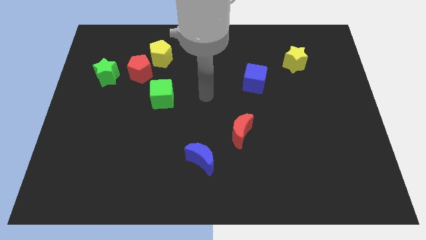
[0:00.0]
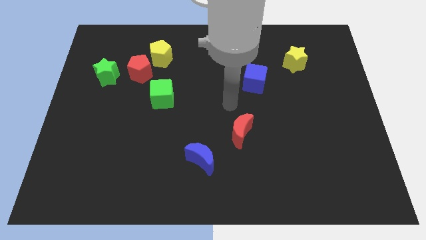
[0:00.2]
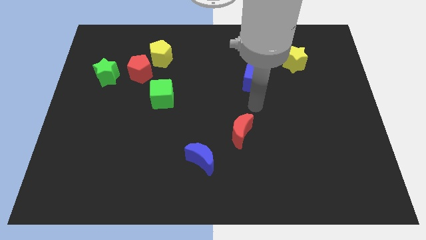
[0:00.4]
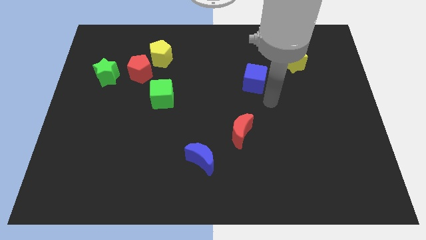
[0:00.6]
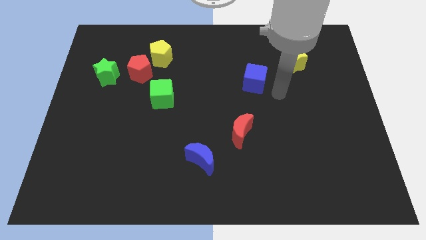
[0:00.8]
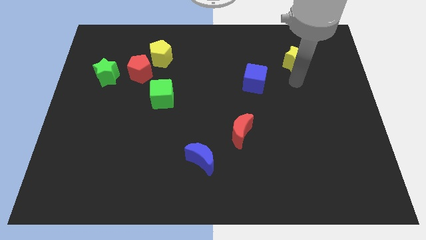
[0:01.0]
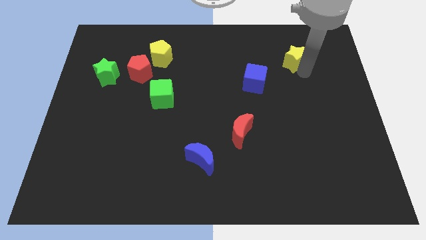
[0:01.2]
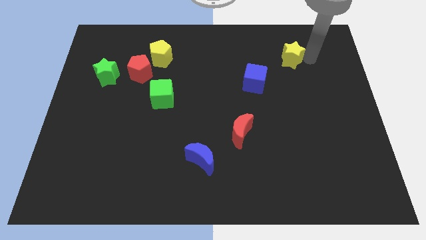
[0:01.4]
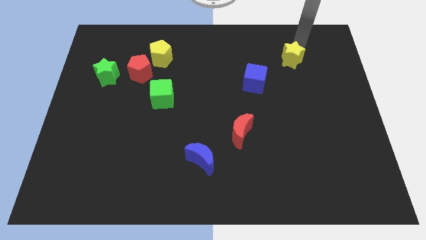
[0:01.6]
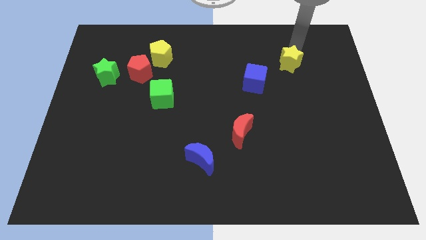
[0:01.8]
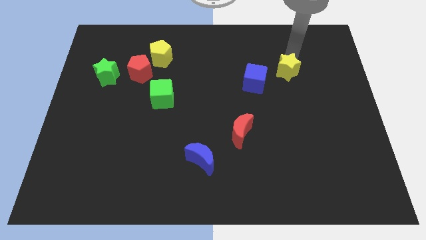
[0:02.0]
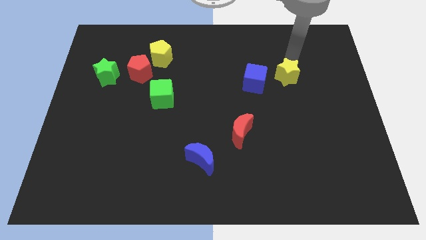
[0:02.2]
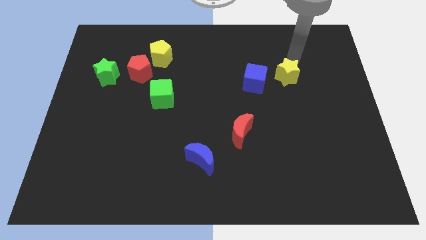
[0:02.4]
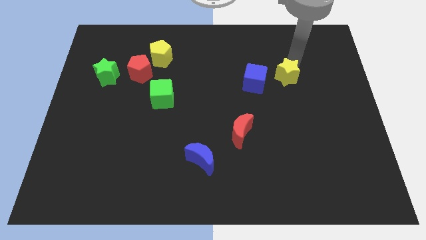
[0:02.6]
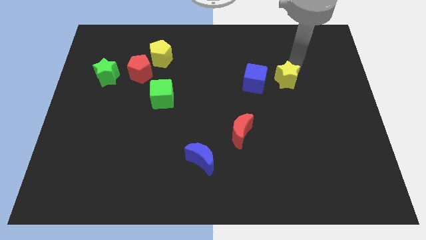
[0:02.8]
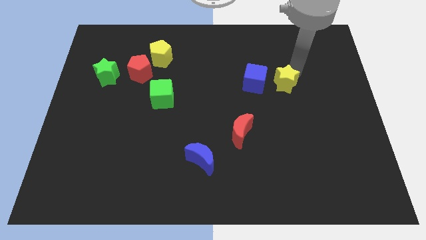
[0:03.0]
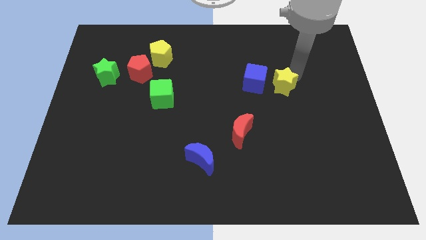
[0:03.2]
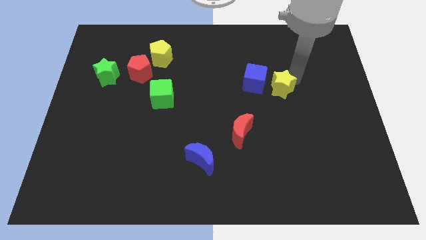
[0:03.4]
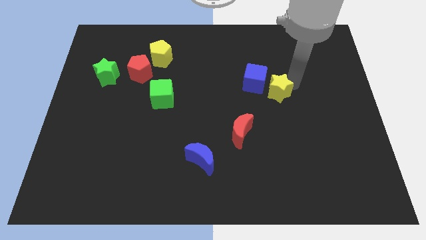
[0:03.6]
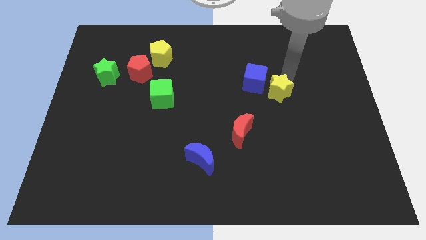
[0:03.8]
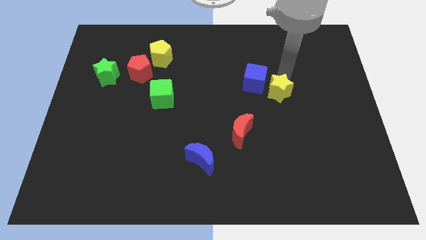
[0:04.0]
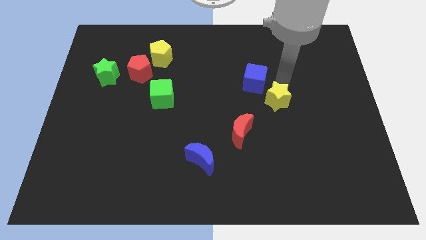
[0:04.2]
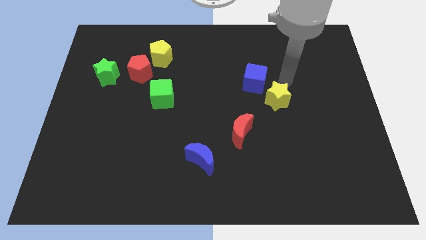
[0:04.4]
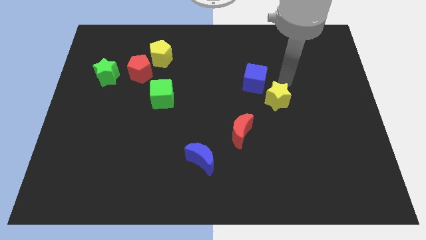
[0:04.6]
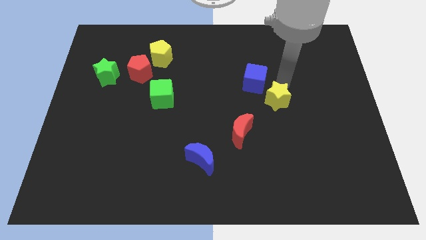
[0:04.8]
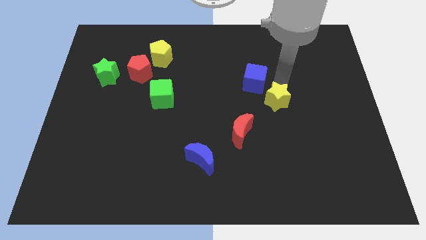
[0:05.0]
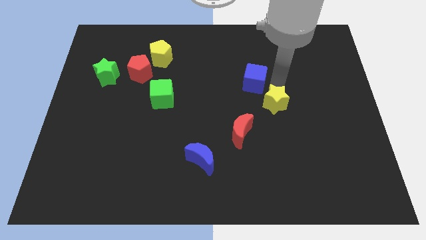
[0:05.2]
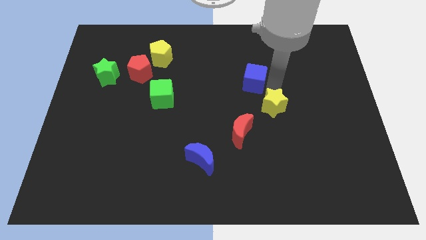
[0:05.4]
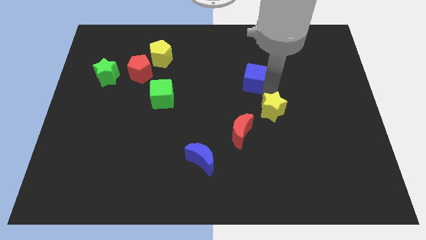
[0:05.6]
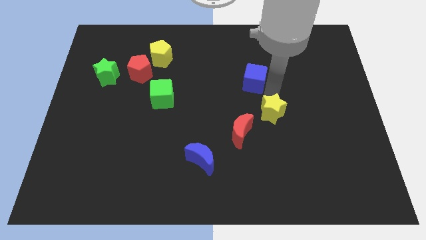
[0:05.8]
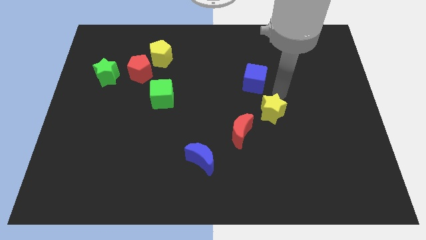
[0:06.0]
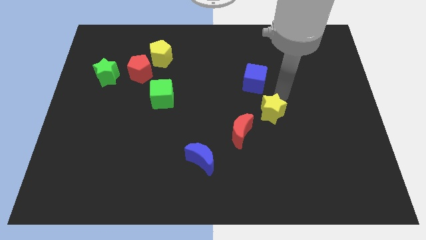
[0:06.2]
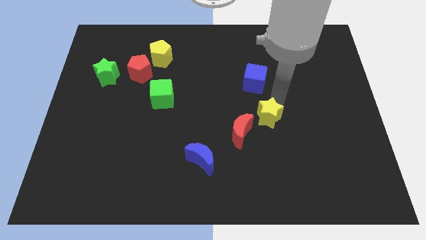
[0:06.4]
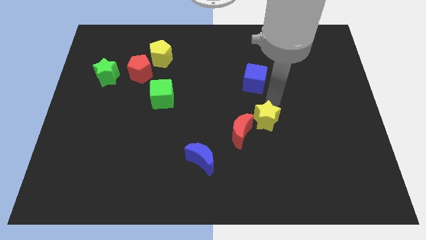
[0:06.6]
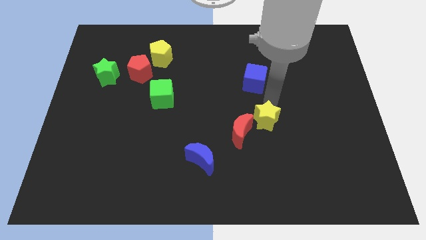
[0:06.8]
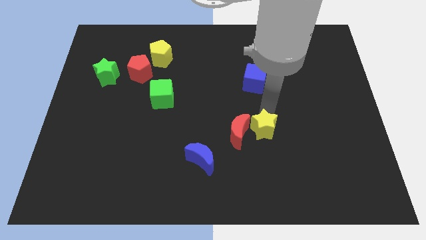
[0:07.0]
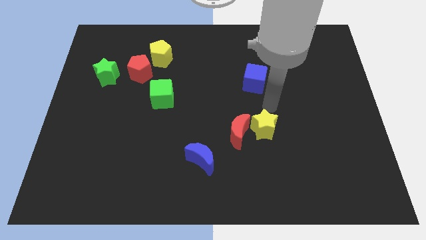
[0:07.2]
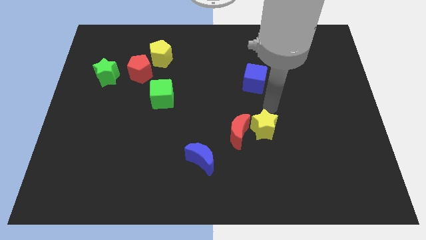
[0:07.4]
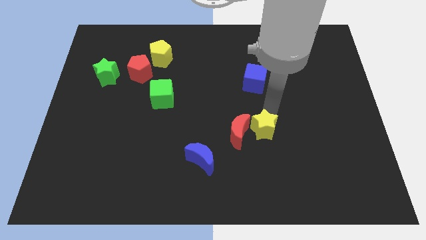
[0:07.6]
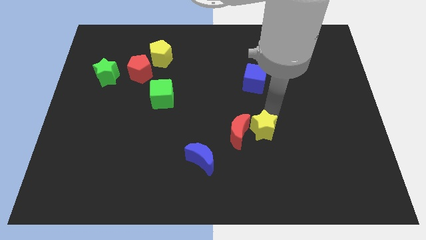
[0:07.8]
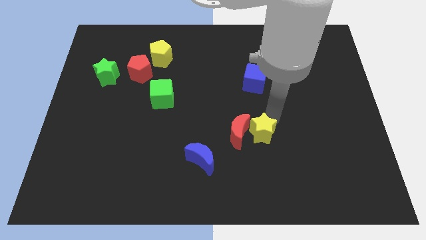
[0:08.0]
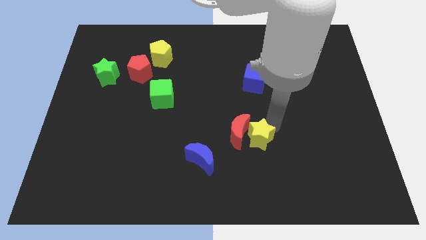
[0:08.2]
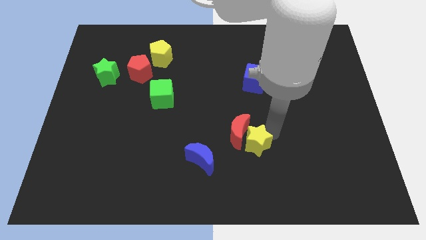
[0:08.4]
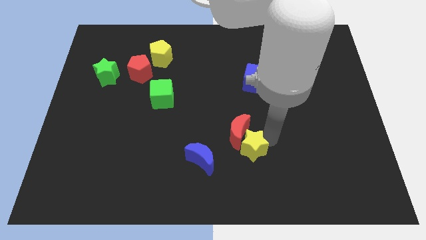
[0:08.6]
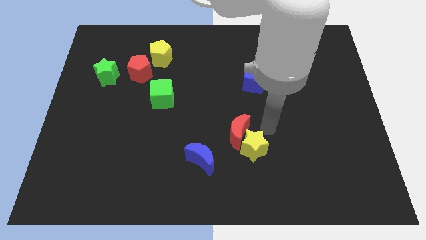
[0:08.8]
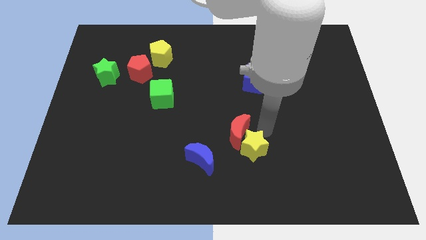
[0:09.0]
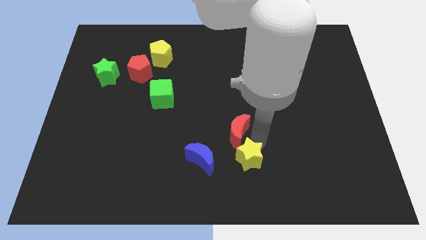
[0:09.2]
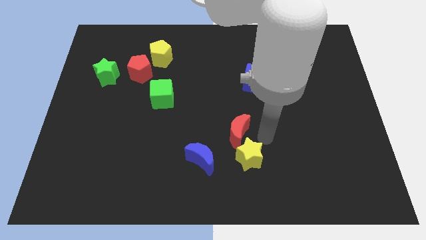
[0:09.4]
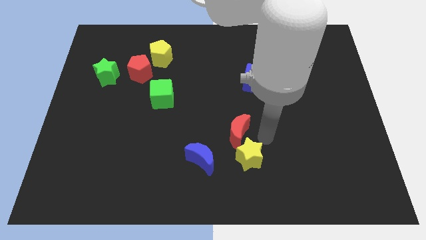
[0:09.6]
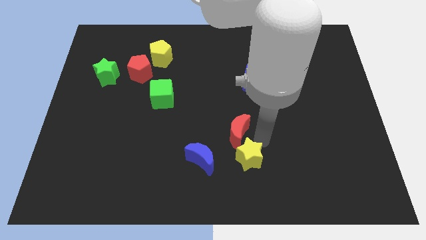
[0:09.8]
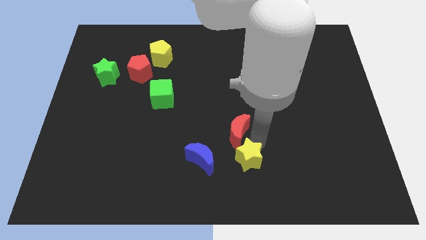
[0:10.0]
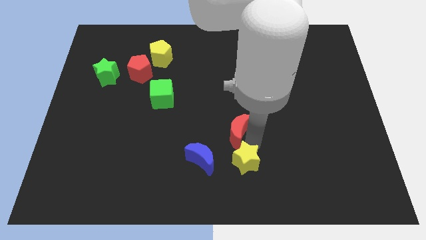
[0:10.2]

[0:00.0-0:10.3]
move the yellow star to the bottom side

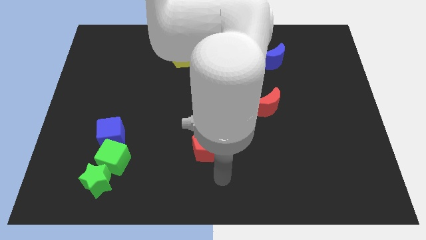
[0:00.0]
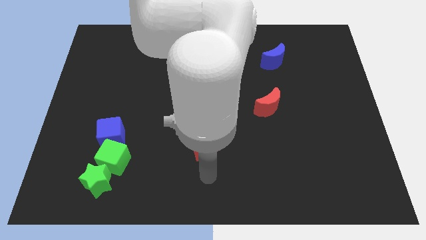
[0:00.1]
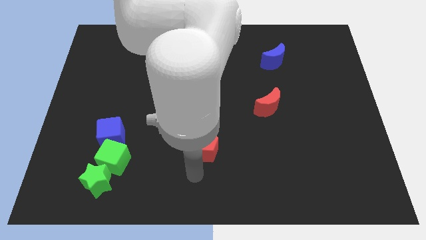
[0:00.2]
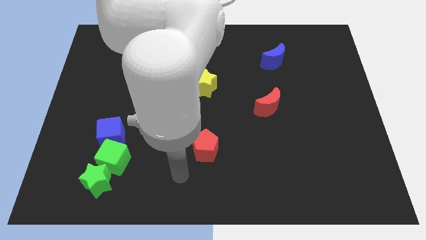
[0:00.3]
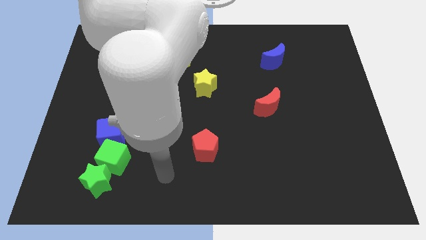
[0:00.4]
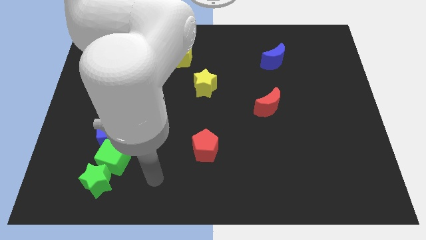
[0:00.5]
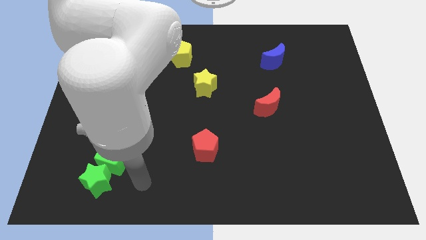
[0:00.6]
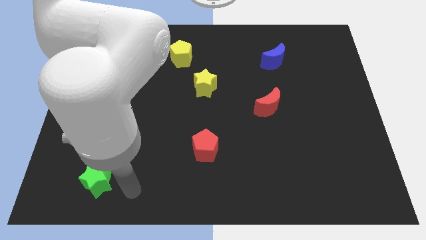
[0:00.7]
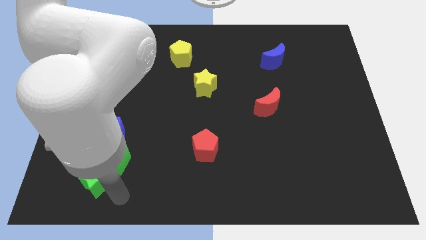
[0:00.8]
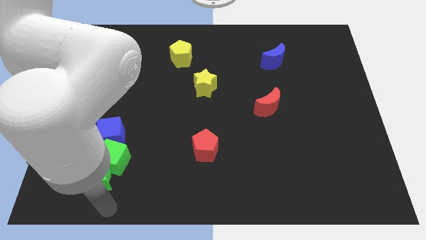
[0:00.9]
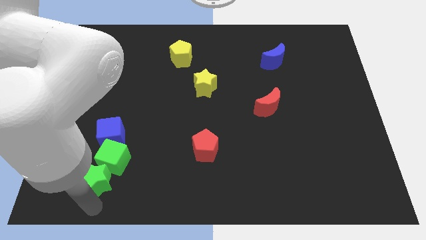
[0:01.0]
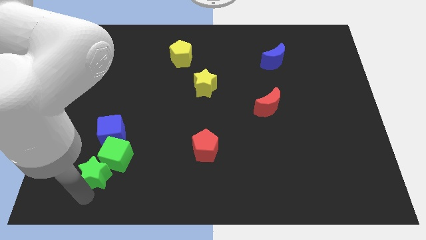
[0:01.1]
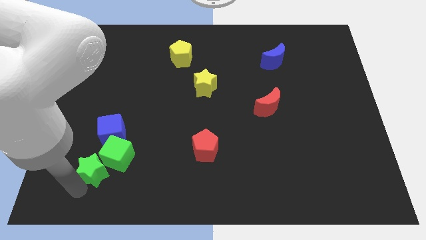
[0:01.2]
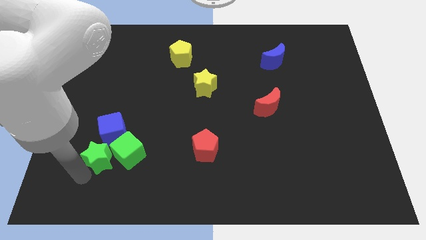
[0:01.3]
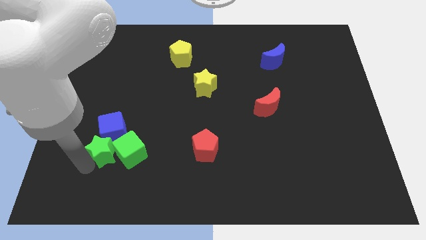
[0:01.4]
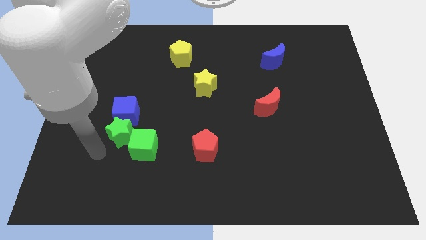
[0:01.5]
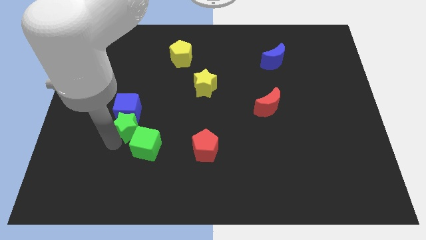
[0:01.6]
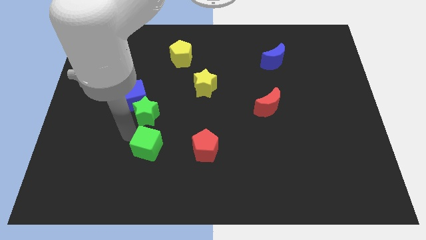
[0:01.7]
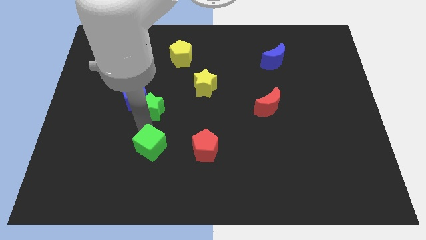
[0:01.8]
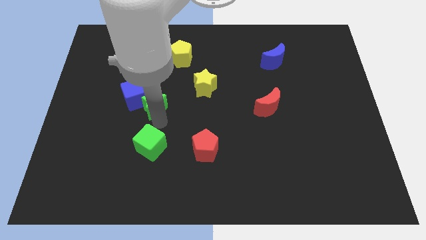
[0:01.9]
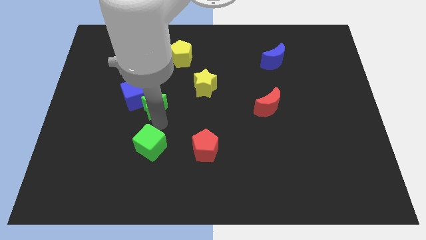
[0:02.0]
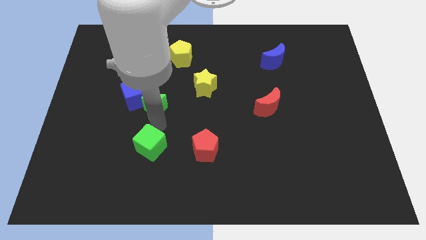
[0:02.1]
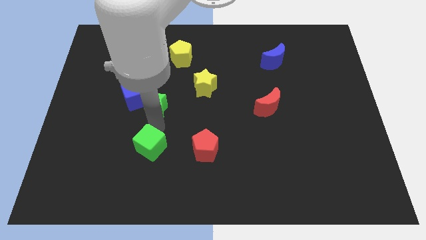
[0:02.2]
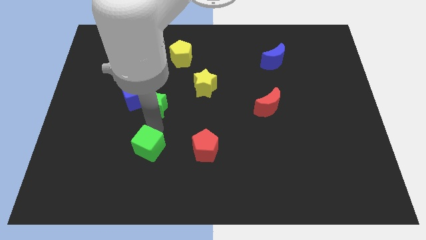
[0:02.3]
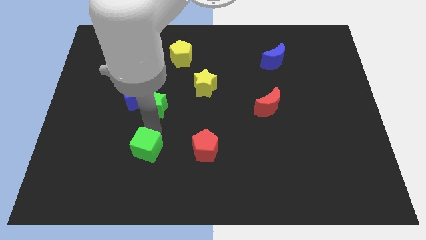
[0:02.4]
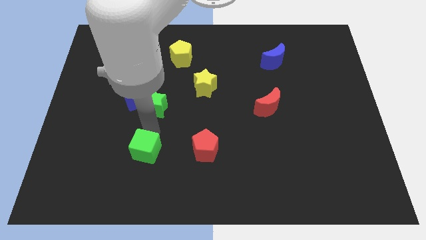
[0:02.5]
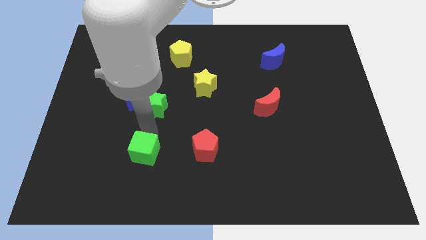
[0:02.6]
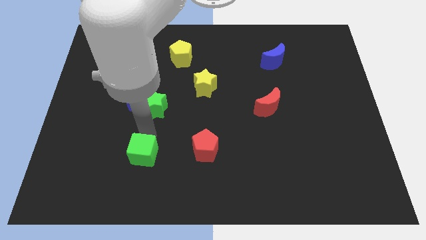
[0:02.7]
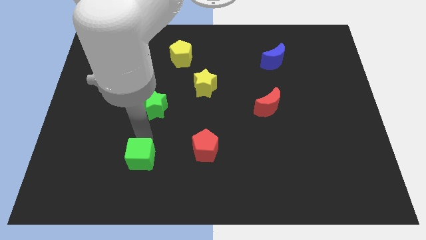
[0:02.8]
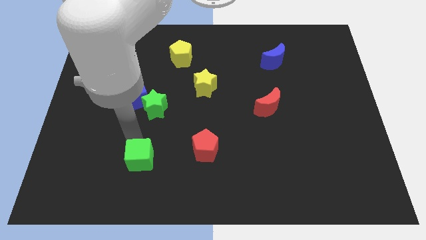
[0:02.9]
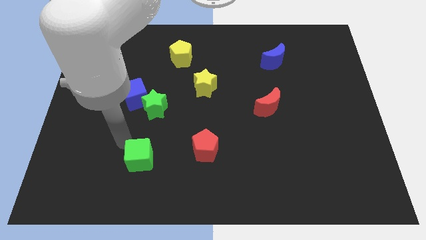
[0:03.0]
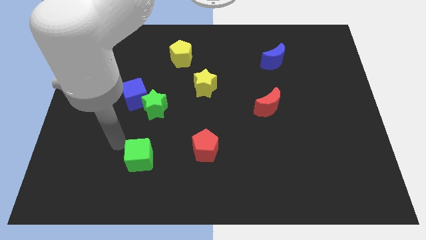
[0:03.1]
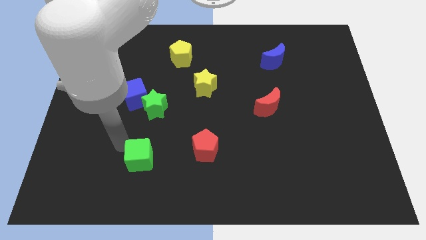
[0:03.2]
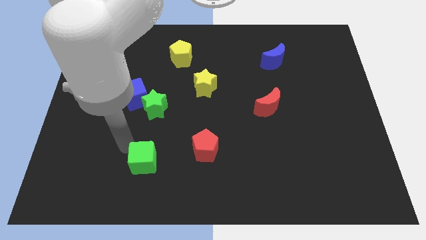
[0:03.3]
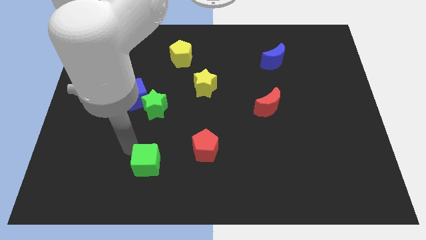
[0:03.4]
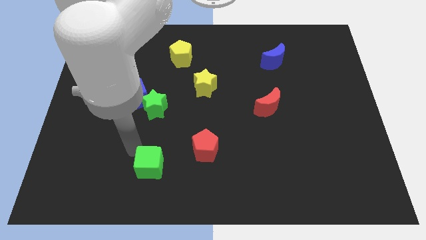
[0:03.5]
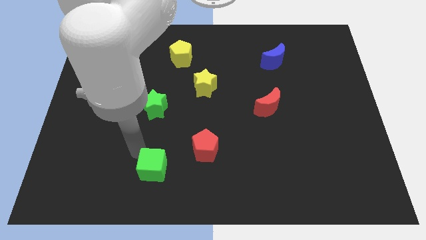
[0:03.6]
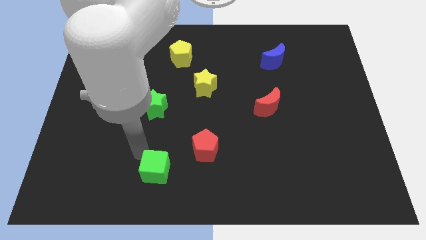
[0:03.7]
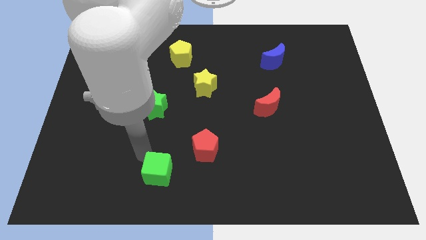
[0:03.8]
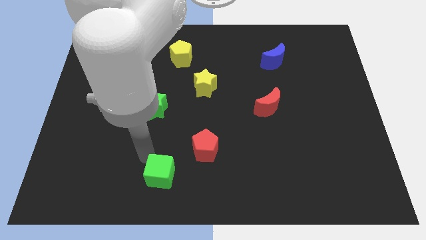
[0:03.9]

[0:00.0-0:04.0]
slide the green cube to the bottom
